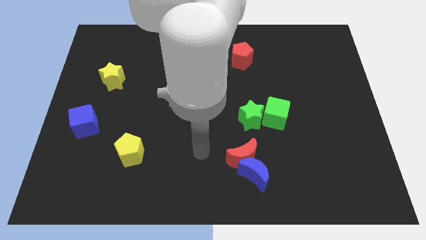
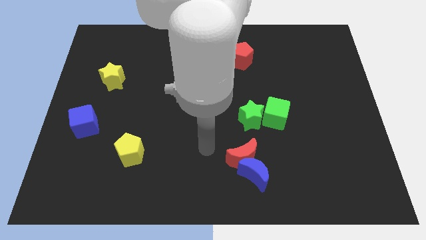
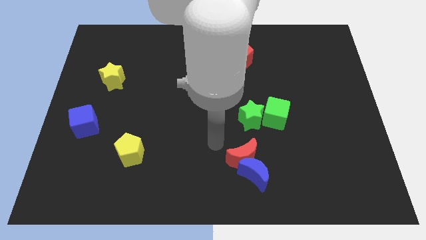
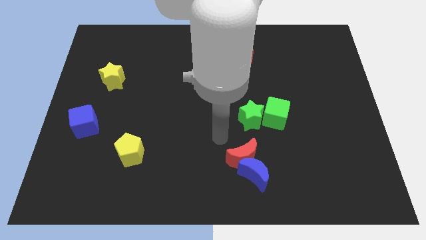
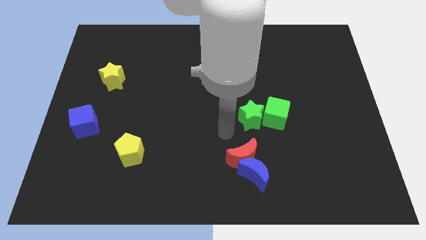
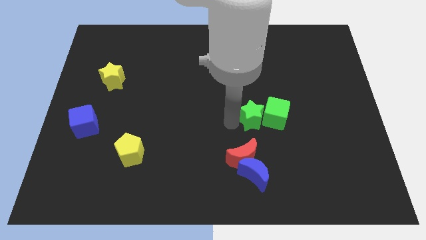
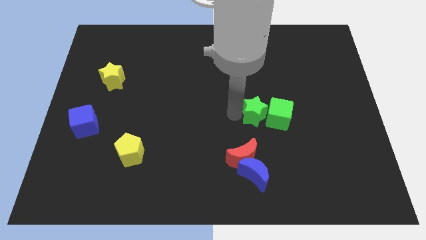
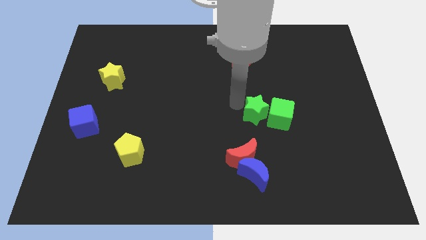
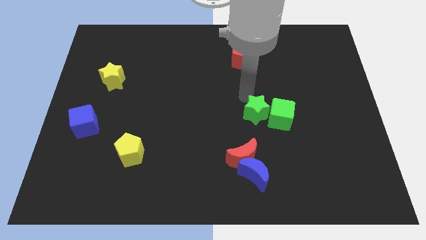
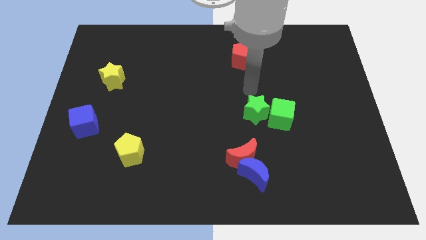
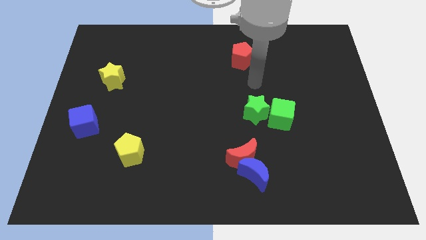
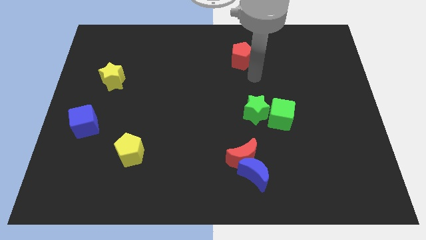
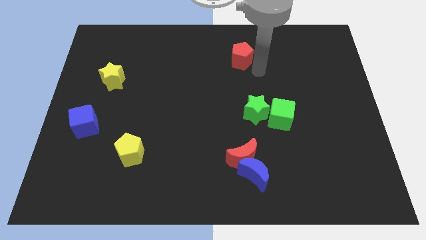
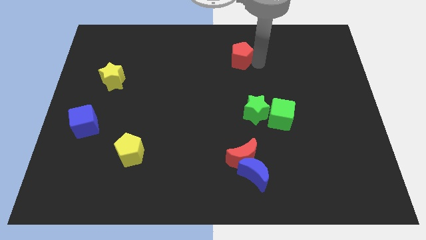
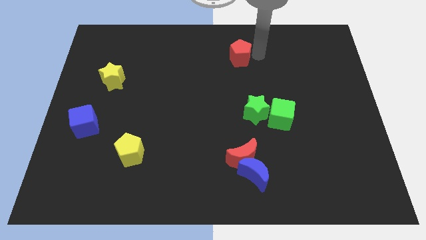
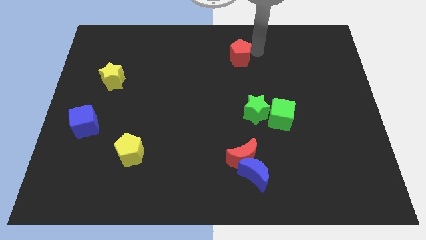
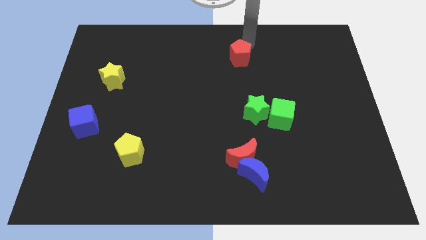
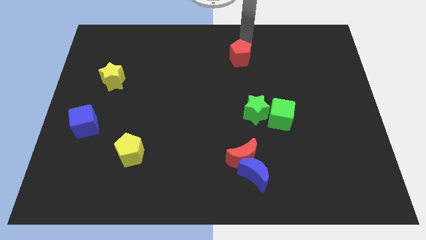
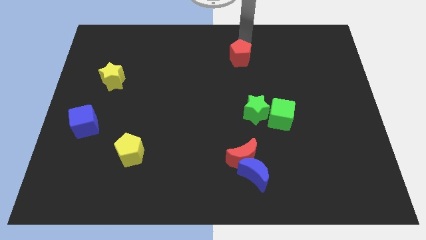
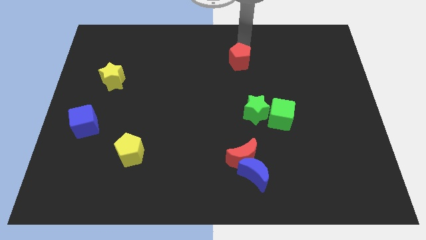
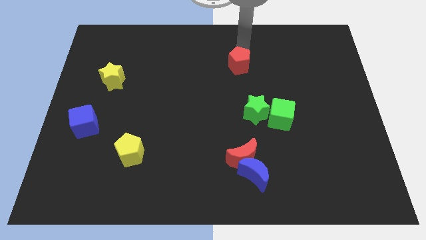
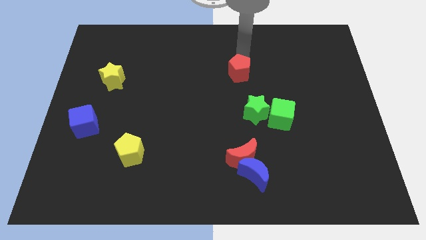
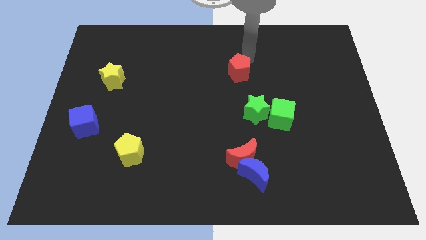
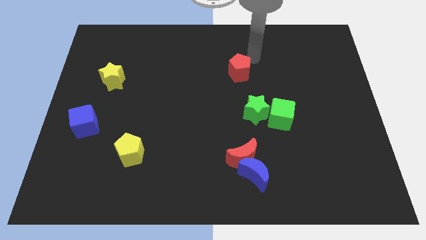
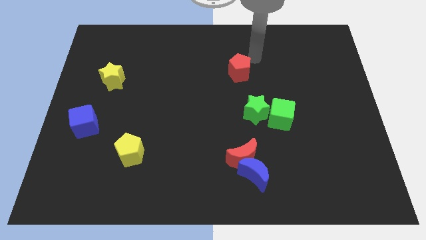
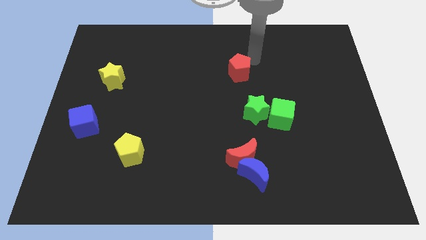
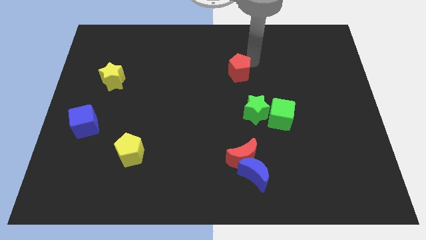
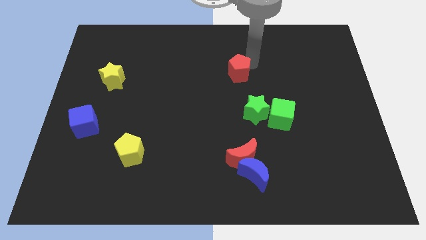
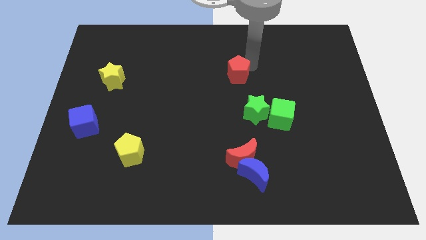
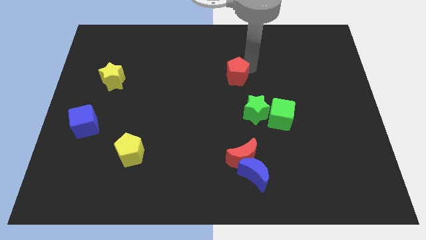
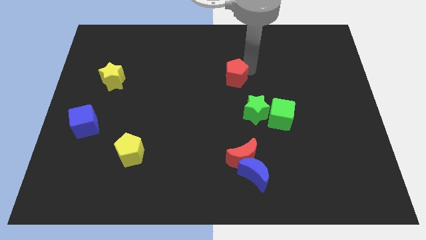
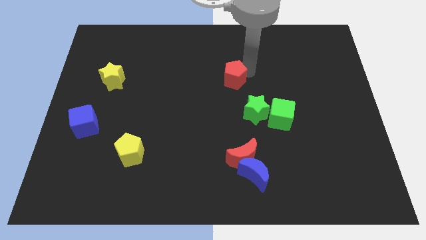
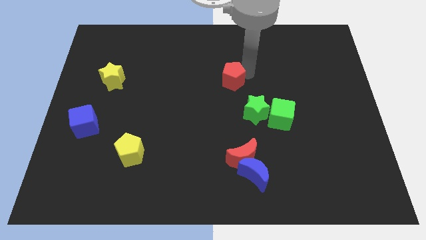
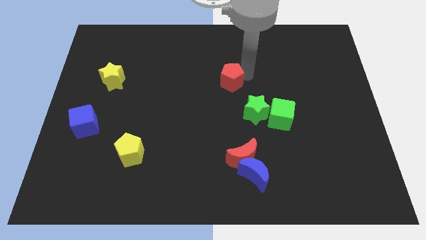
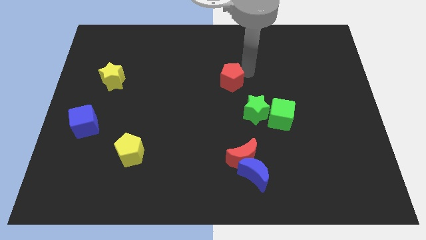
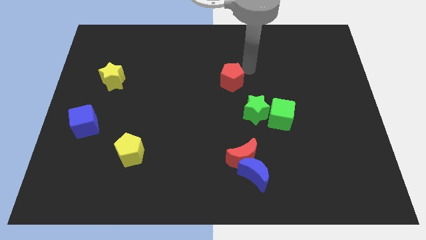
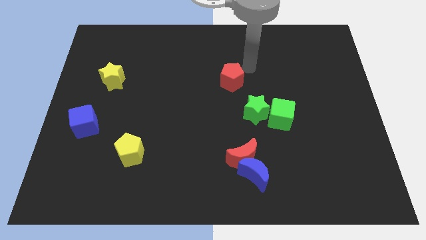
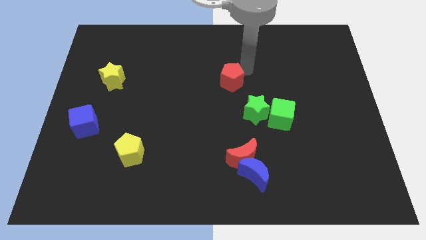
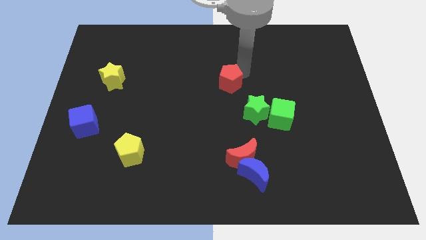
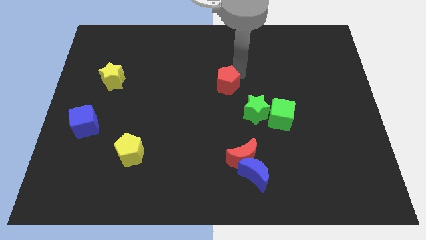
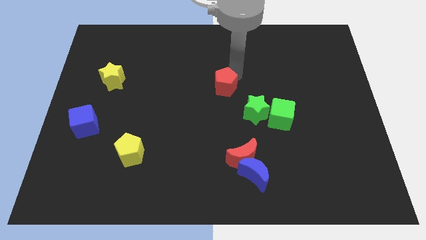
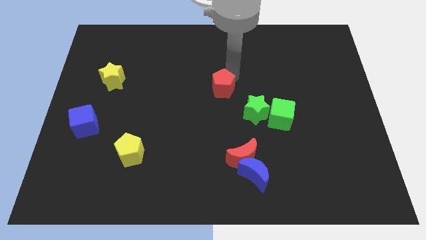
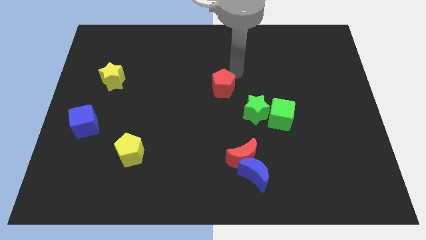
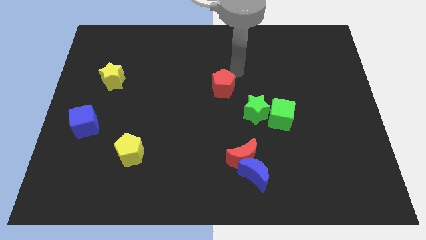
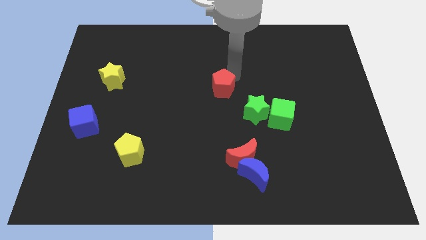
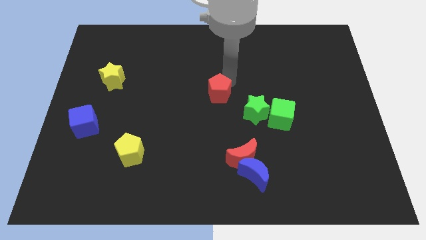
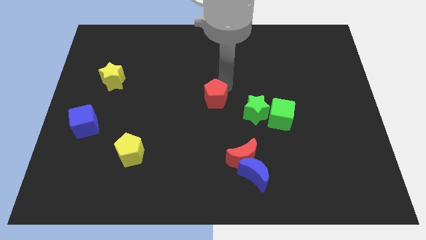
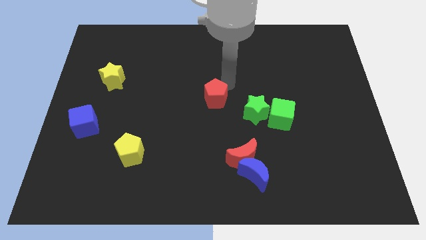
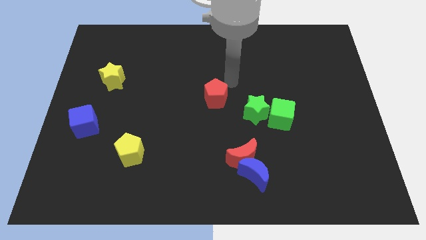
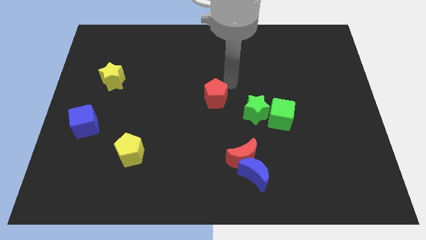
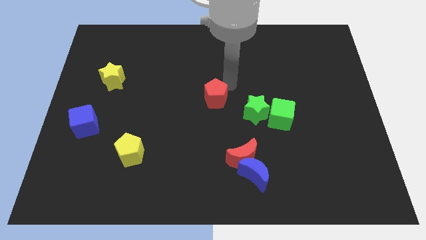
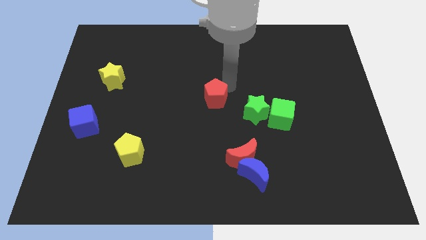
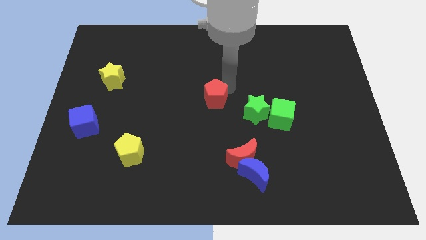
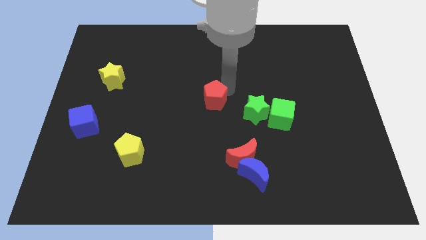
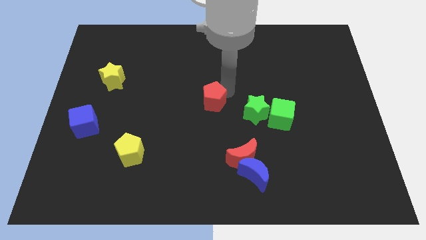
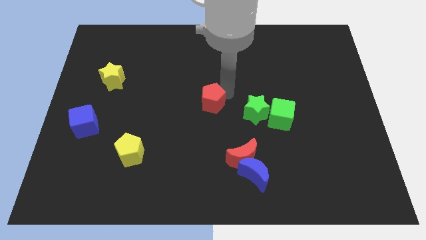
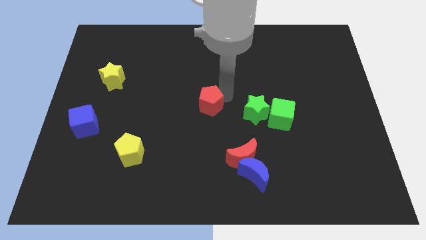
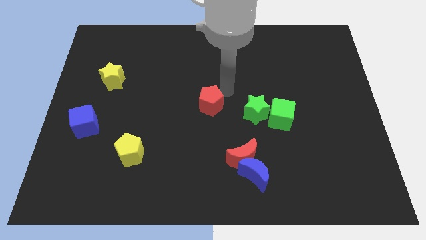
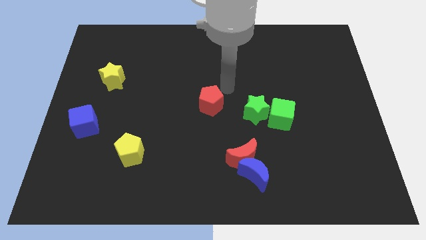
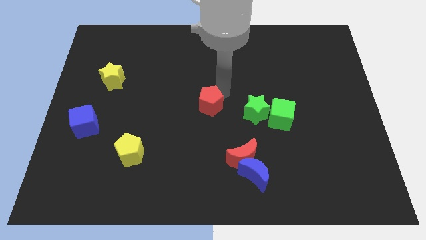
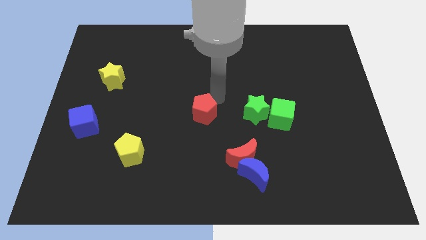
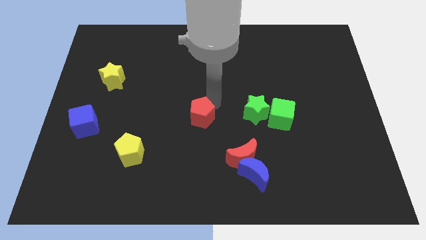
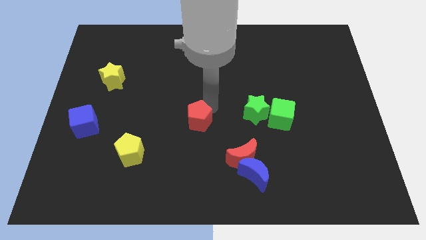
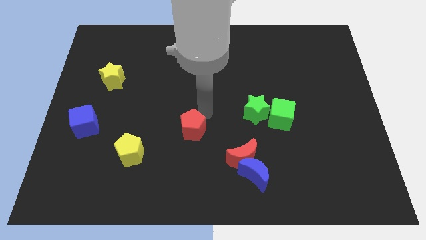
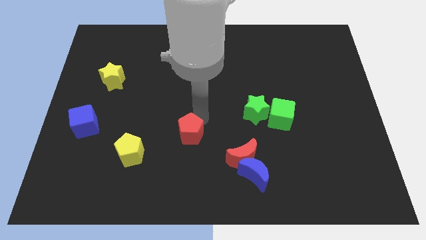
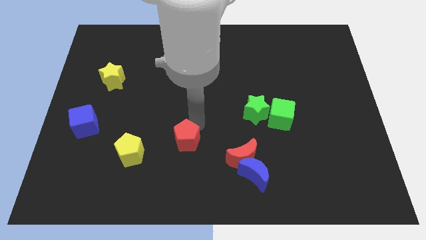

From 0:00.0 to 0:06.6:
put the red pentagon right of the yellow pentagon
